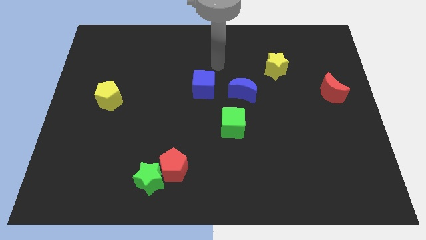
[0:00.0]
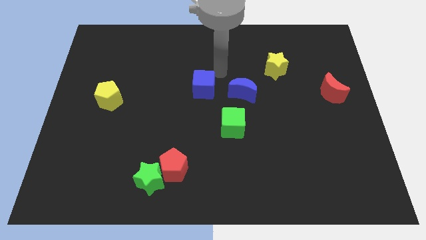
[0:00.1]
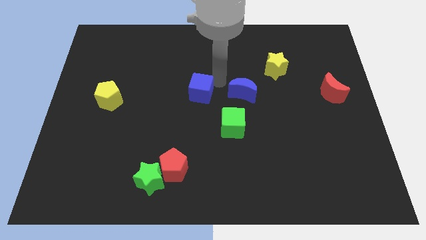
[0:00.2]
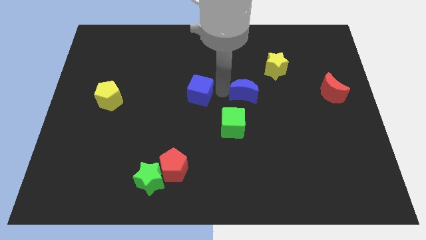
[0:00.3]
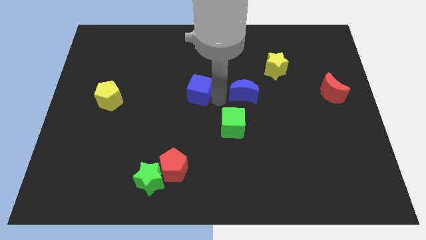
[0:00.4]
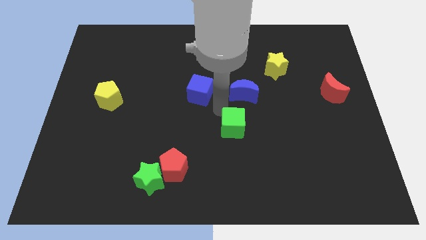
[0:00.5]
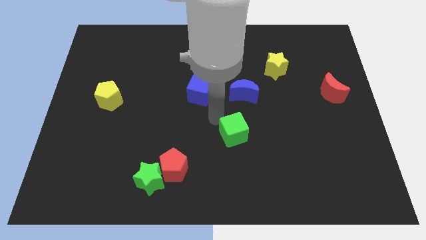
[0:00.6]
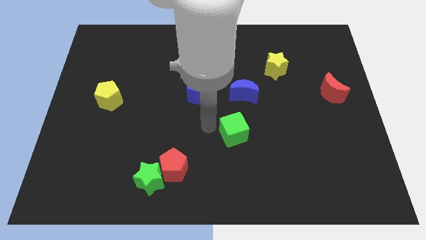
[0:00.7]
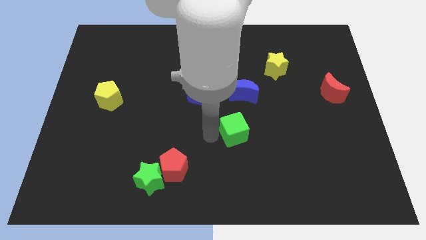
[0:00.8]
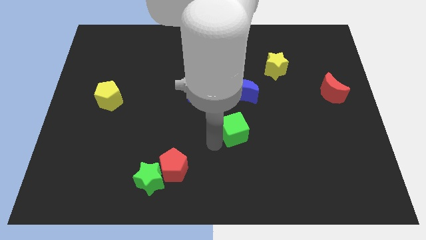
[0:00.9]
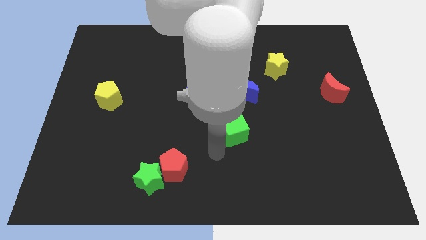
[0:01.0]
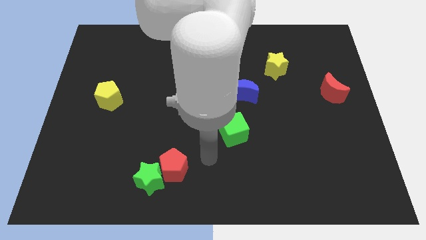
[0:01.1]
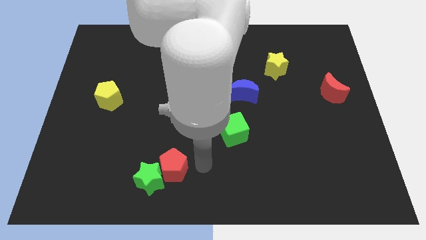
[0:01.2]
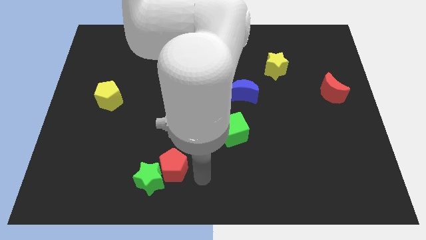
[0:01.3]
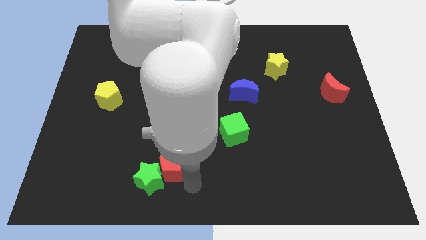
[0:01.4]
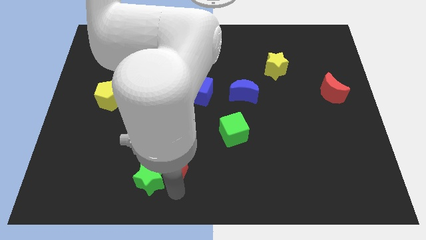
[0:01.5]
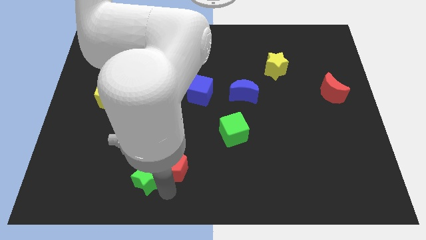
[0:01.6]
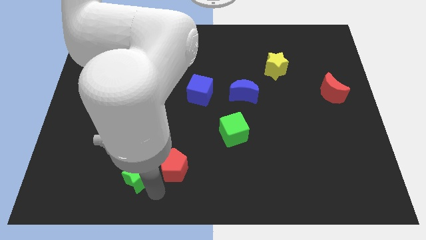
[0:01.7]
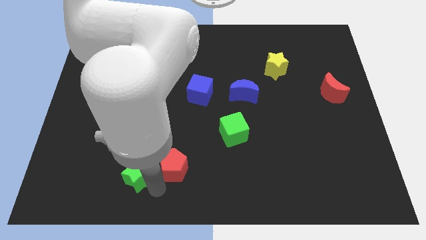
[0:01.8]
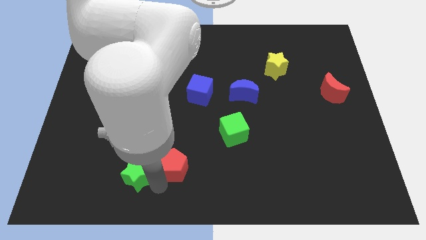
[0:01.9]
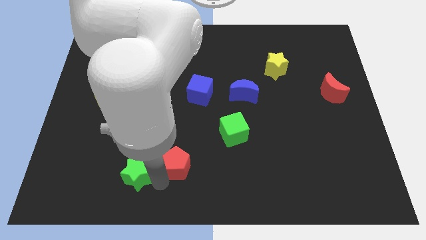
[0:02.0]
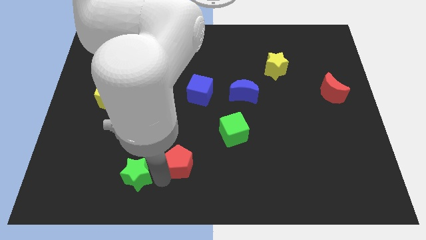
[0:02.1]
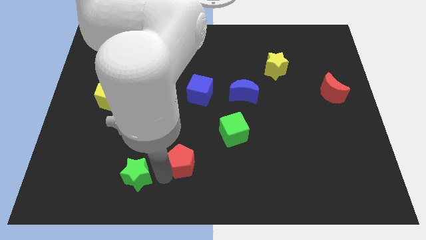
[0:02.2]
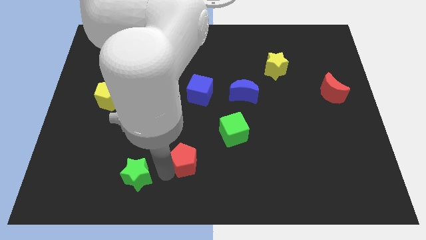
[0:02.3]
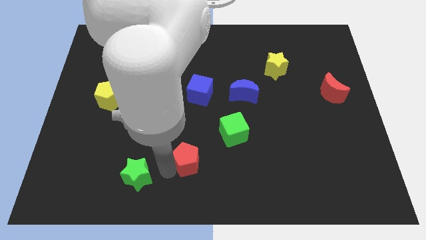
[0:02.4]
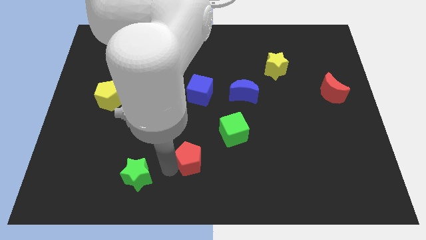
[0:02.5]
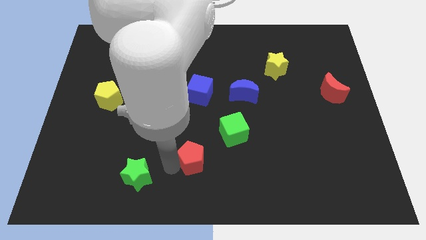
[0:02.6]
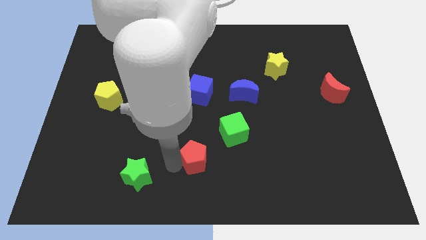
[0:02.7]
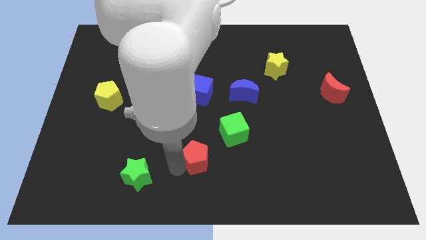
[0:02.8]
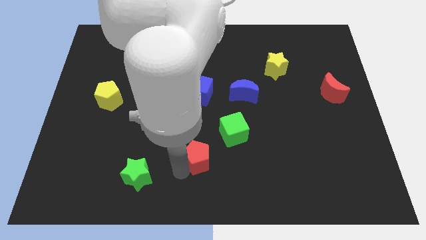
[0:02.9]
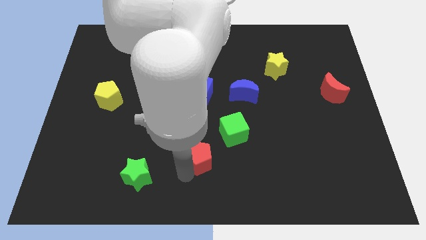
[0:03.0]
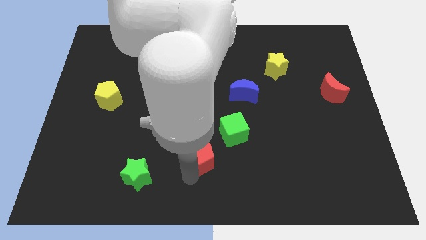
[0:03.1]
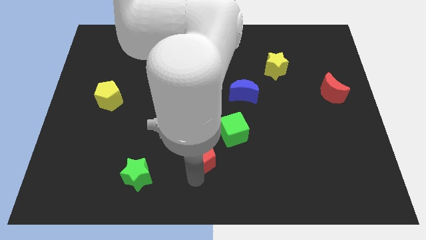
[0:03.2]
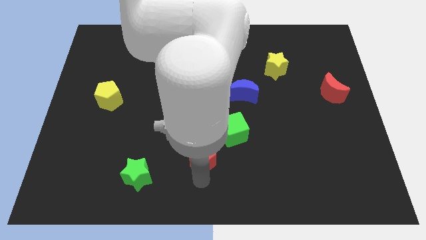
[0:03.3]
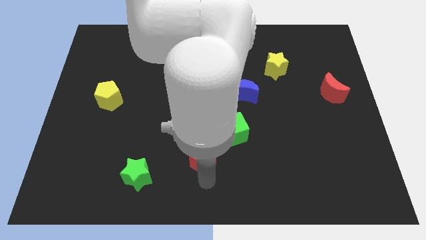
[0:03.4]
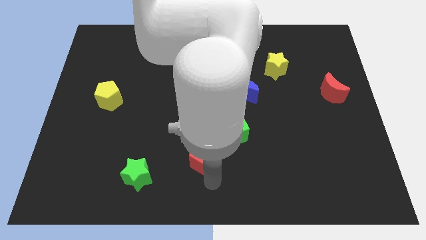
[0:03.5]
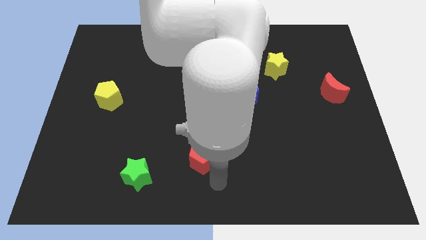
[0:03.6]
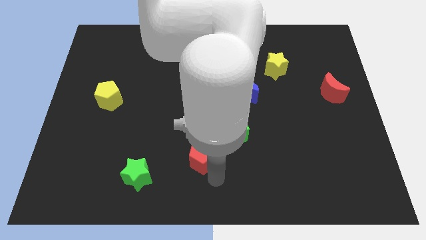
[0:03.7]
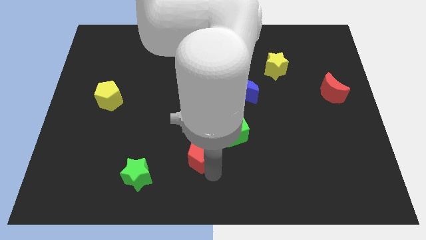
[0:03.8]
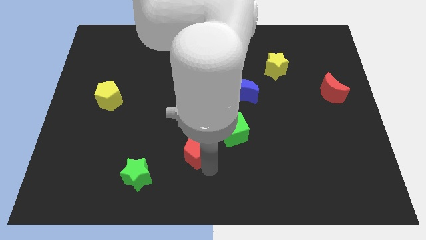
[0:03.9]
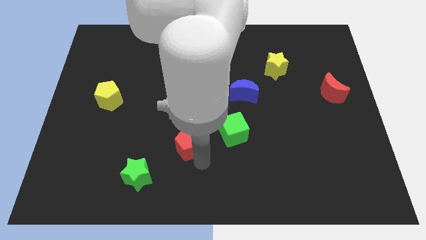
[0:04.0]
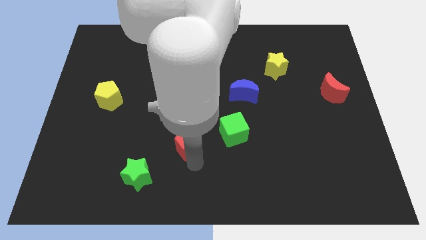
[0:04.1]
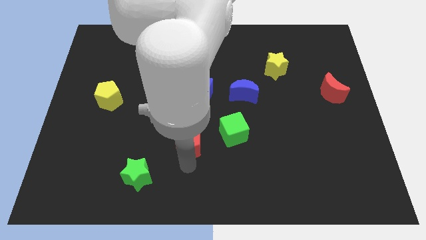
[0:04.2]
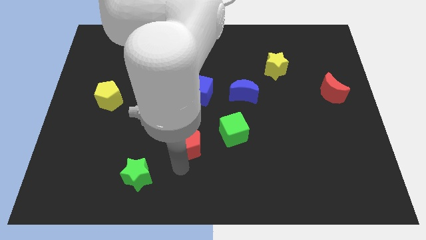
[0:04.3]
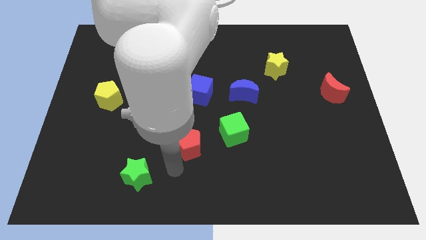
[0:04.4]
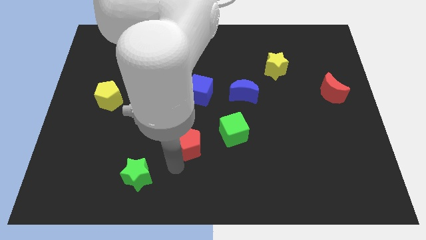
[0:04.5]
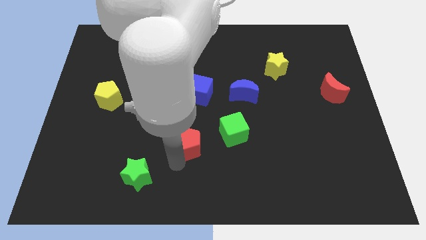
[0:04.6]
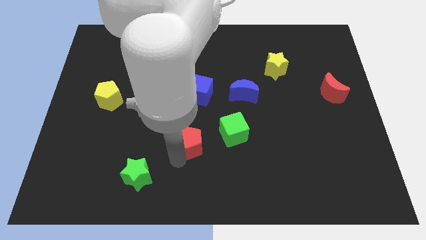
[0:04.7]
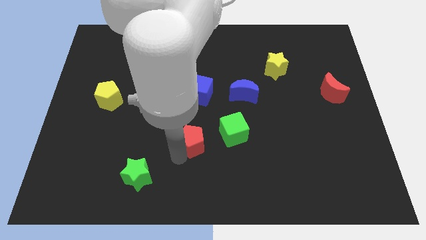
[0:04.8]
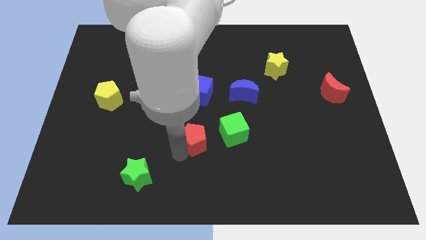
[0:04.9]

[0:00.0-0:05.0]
slide the red pentagon to the center

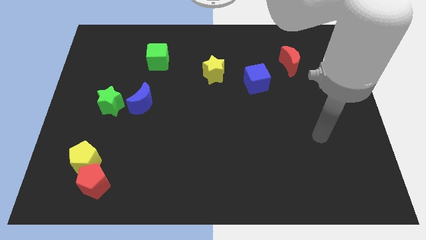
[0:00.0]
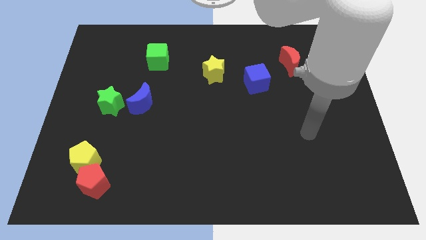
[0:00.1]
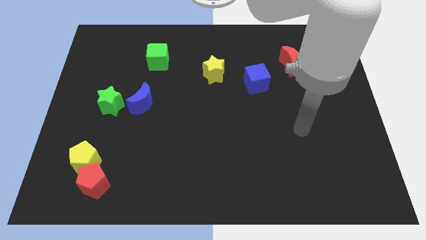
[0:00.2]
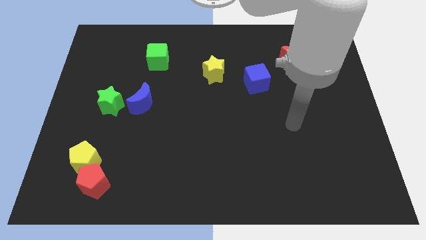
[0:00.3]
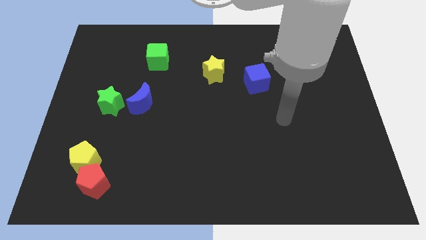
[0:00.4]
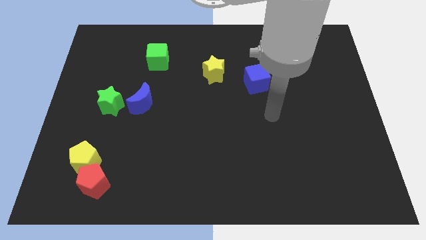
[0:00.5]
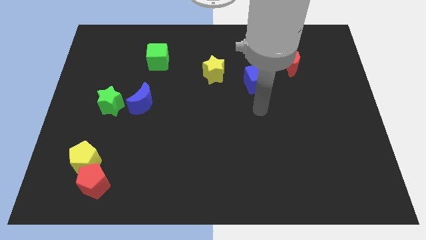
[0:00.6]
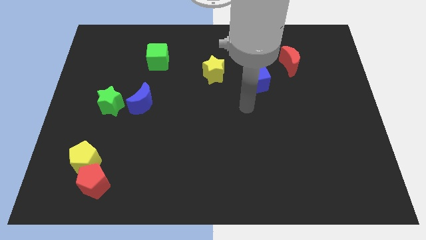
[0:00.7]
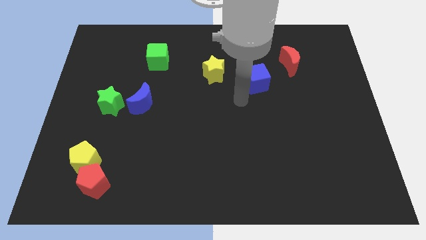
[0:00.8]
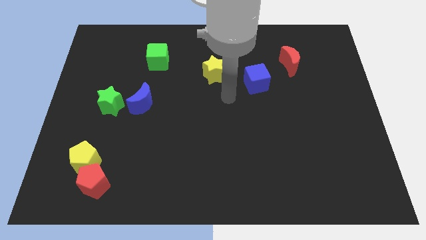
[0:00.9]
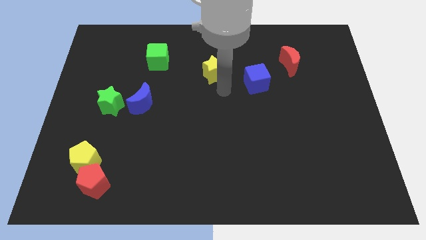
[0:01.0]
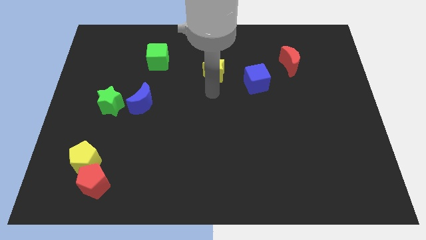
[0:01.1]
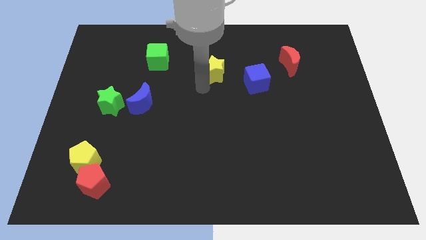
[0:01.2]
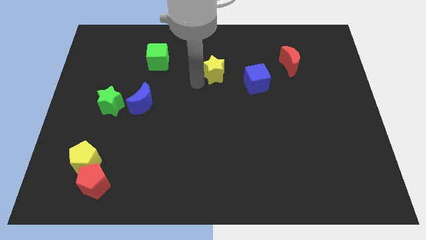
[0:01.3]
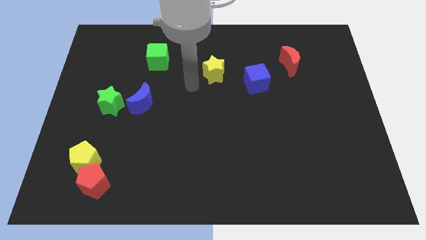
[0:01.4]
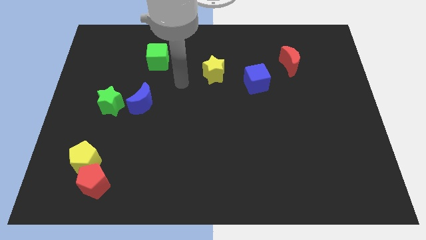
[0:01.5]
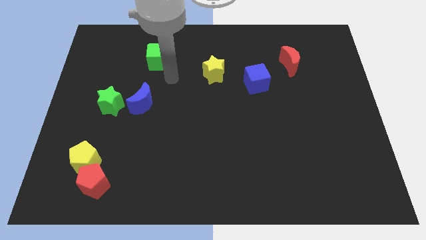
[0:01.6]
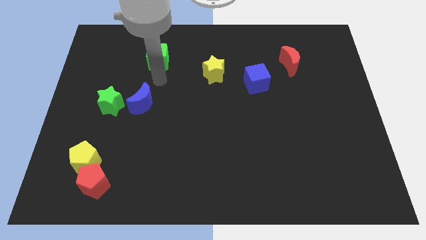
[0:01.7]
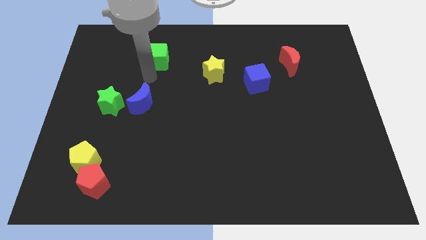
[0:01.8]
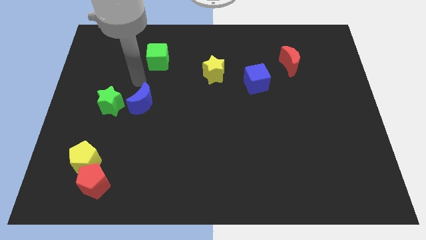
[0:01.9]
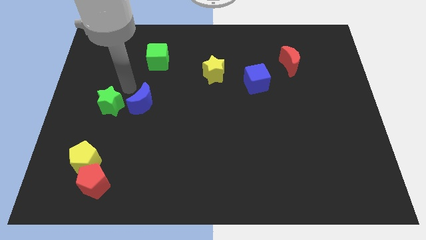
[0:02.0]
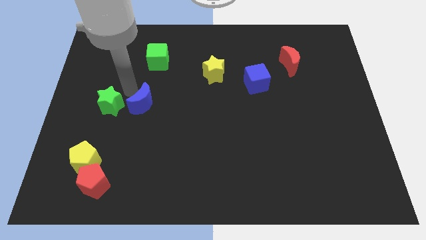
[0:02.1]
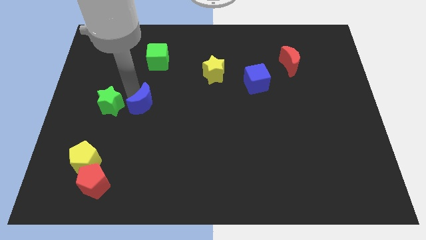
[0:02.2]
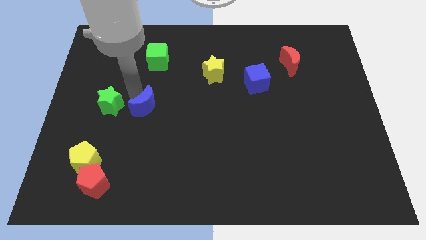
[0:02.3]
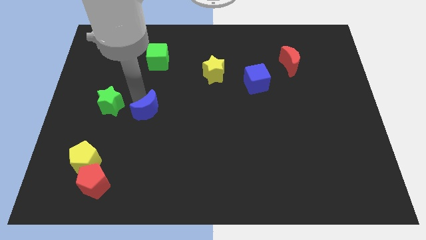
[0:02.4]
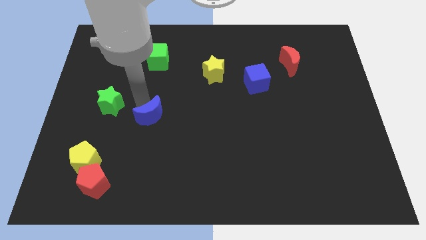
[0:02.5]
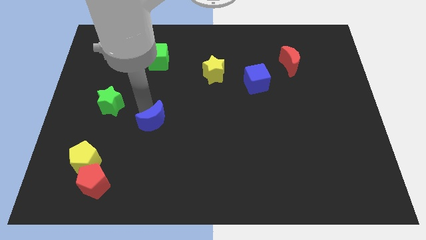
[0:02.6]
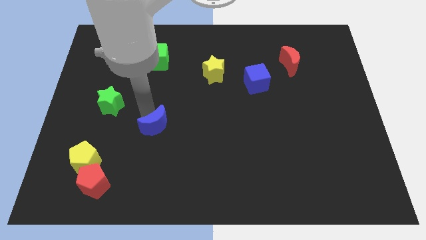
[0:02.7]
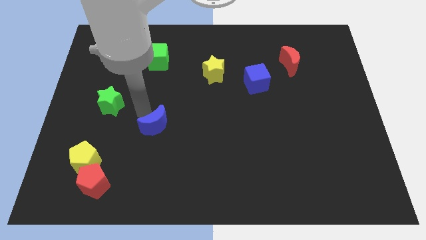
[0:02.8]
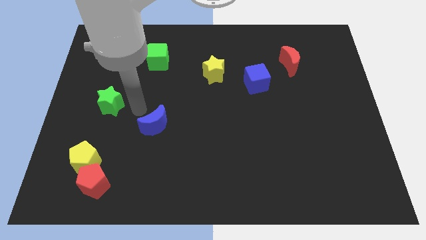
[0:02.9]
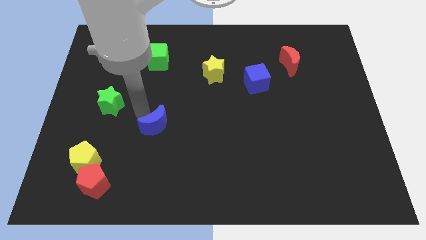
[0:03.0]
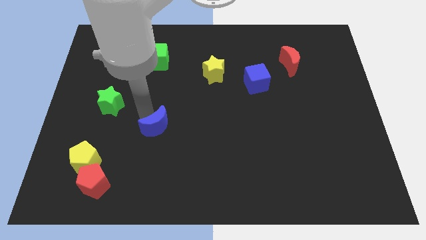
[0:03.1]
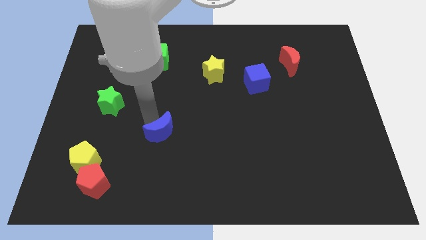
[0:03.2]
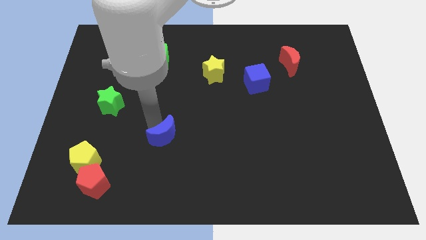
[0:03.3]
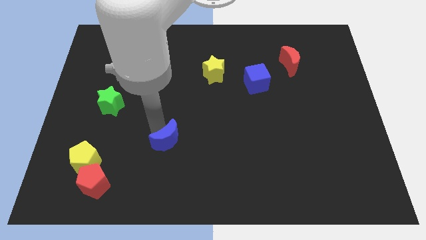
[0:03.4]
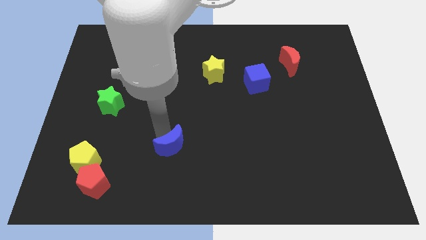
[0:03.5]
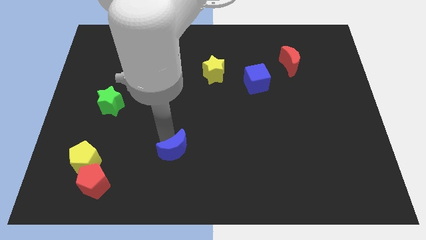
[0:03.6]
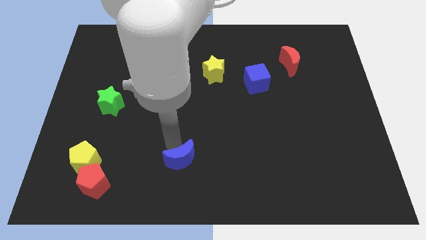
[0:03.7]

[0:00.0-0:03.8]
push the blue moon to the bottom
